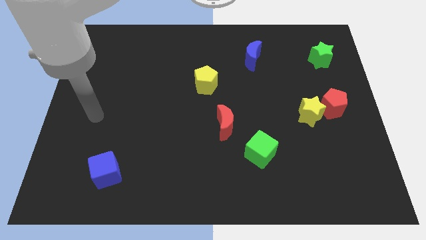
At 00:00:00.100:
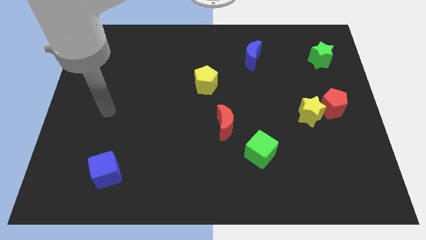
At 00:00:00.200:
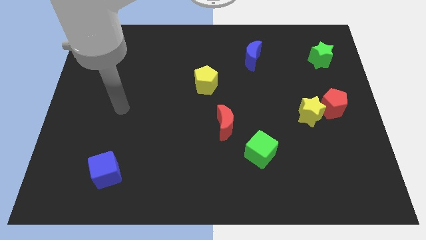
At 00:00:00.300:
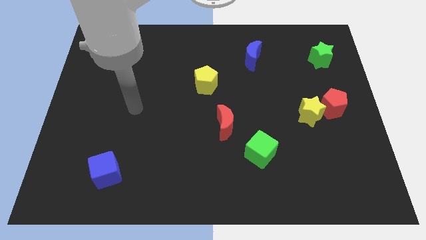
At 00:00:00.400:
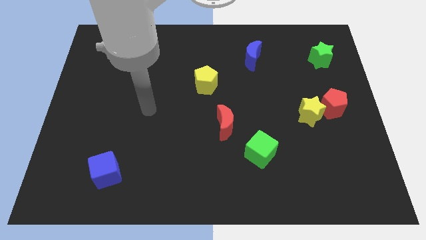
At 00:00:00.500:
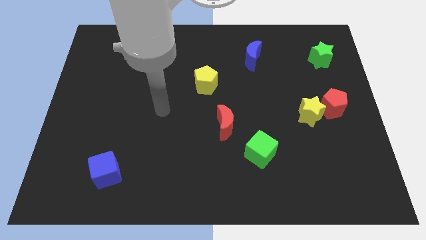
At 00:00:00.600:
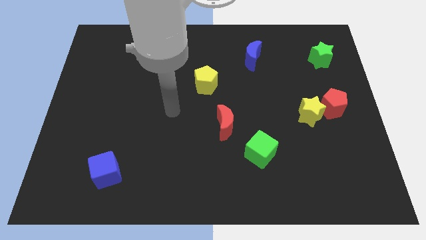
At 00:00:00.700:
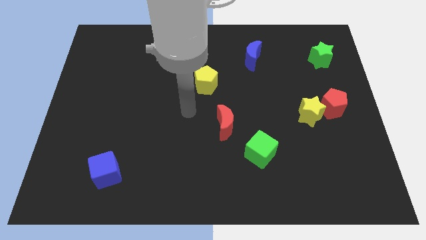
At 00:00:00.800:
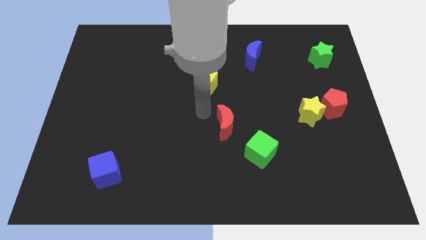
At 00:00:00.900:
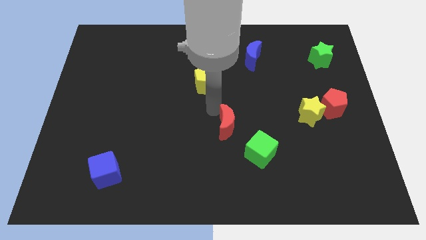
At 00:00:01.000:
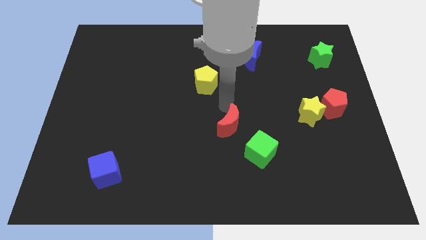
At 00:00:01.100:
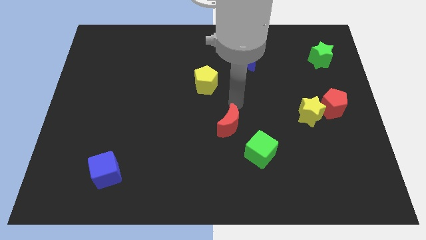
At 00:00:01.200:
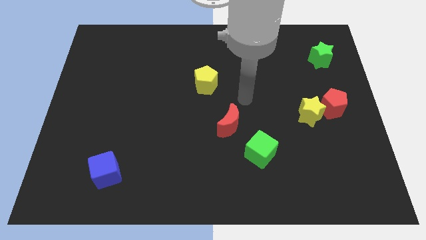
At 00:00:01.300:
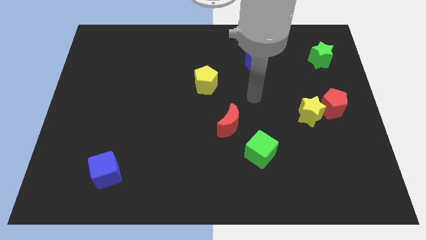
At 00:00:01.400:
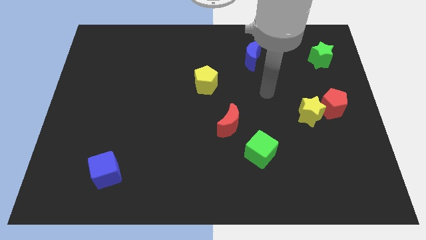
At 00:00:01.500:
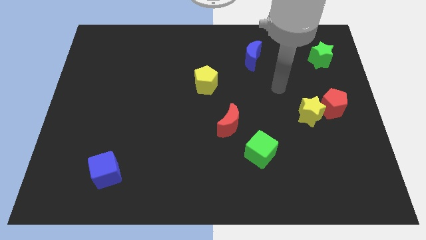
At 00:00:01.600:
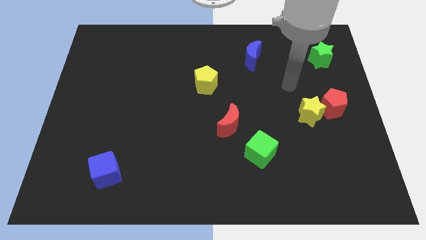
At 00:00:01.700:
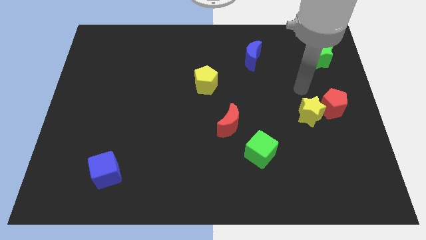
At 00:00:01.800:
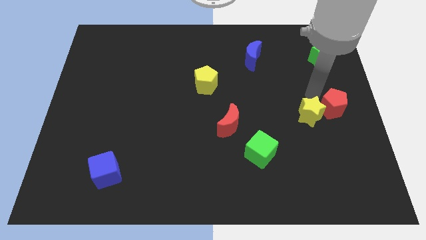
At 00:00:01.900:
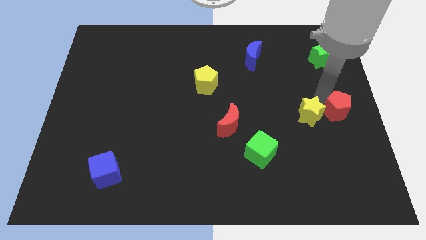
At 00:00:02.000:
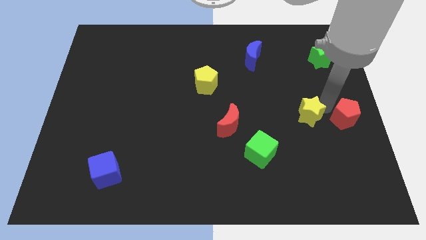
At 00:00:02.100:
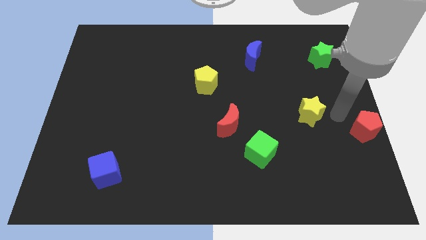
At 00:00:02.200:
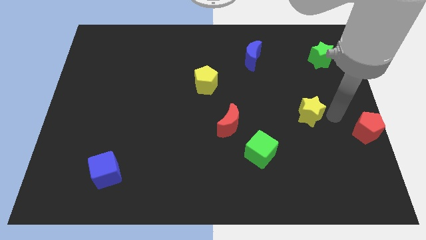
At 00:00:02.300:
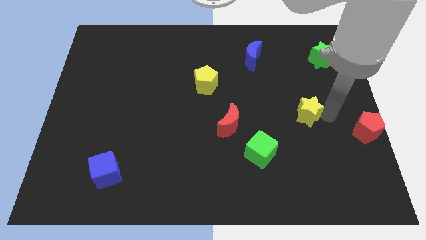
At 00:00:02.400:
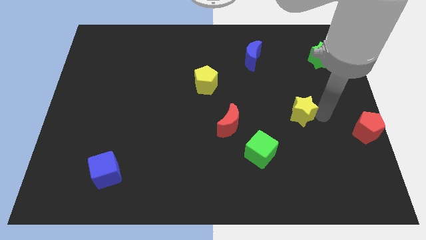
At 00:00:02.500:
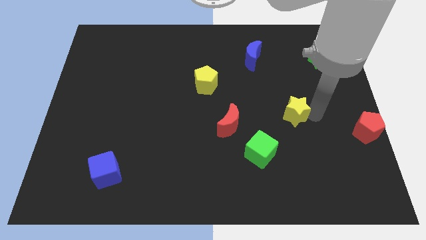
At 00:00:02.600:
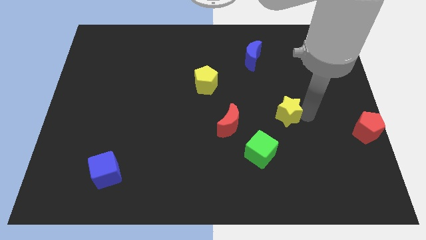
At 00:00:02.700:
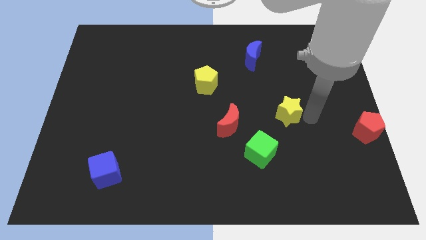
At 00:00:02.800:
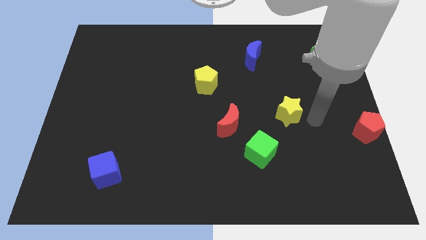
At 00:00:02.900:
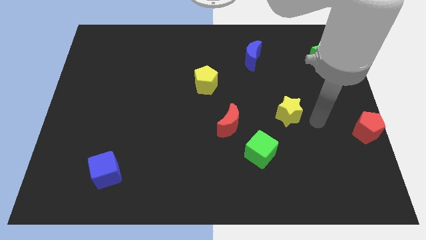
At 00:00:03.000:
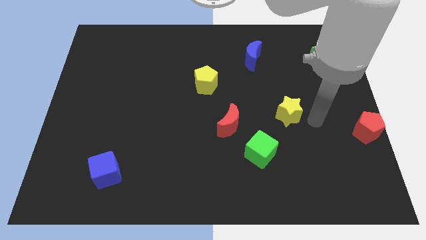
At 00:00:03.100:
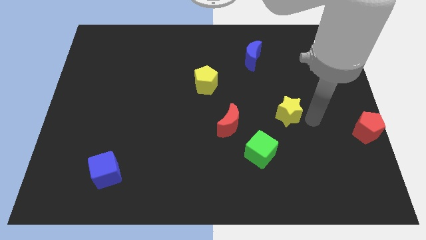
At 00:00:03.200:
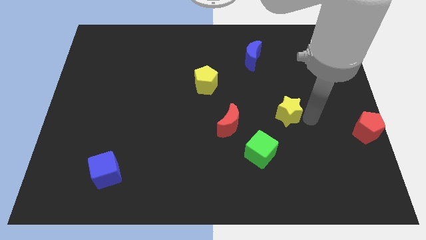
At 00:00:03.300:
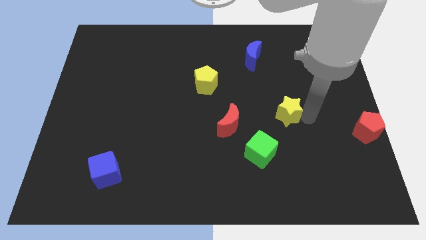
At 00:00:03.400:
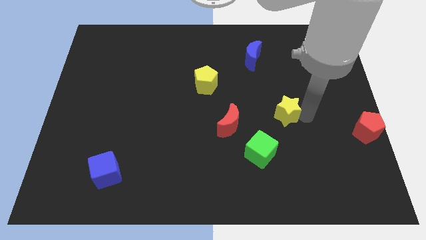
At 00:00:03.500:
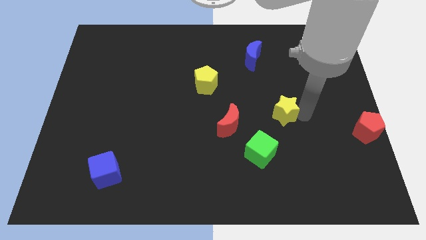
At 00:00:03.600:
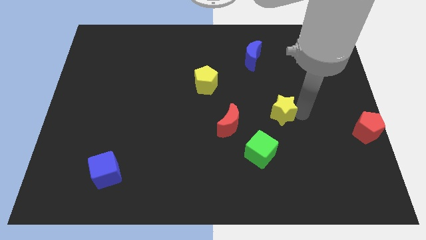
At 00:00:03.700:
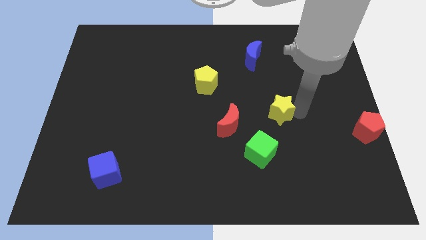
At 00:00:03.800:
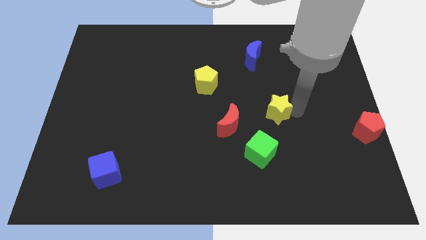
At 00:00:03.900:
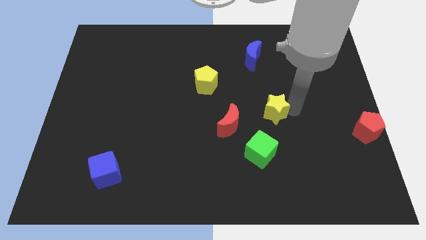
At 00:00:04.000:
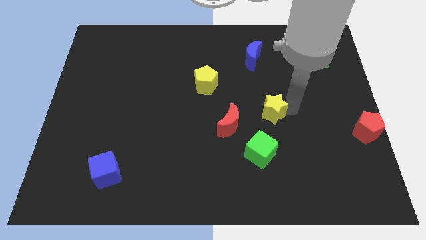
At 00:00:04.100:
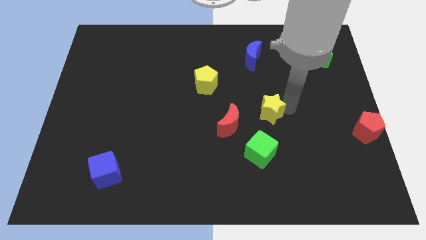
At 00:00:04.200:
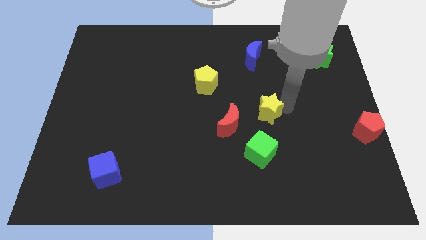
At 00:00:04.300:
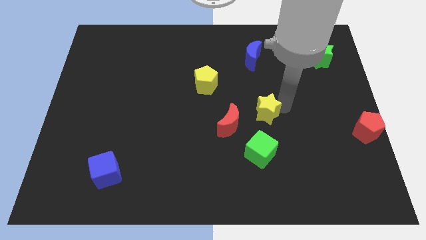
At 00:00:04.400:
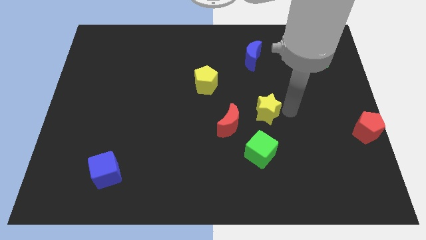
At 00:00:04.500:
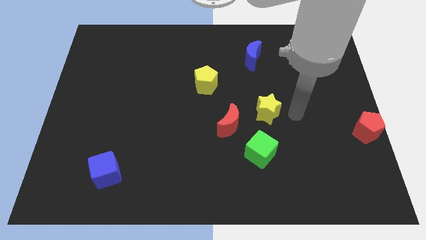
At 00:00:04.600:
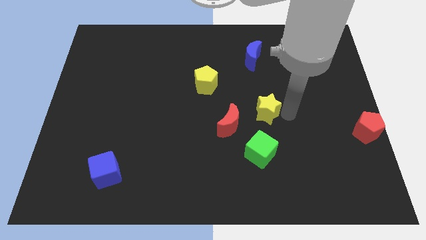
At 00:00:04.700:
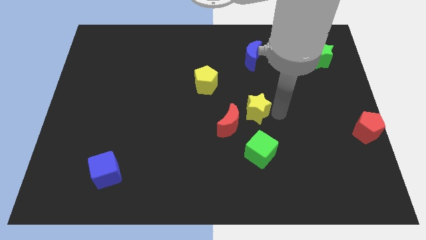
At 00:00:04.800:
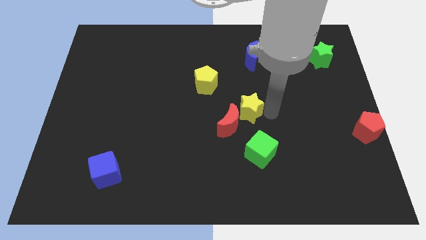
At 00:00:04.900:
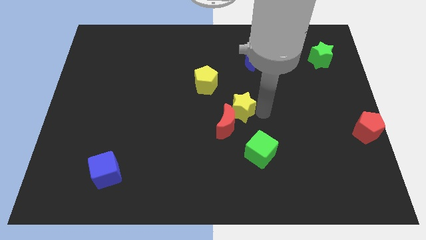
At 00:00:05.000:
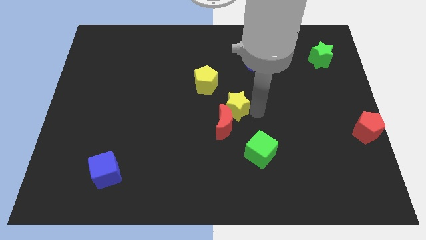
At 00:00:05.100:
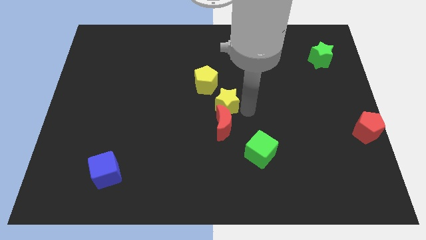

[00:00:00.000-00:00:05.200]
push the yellow star diagonally up and to the left of the red moon

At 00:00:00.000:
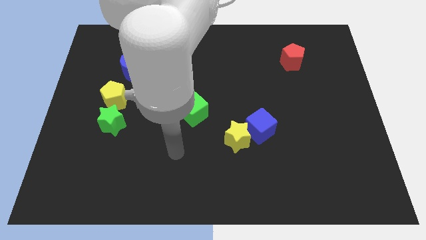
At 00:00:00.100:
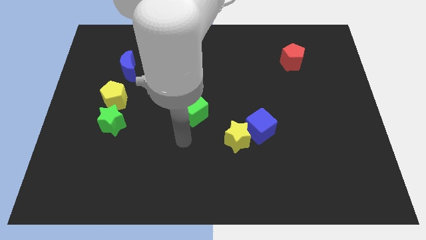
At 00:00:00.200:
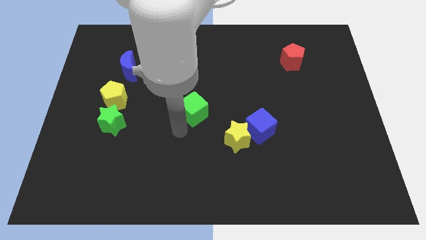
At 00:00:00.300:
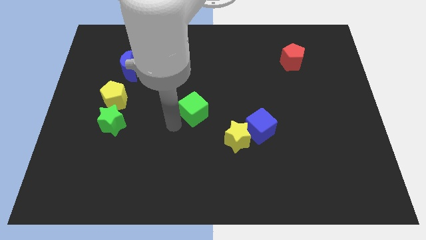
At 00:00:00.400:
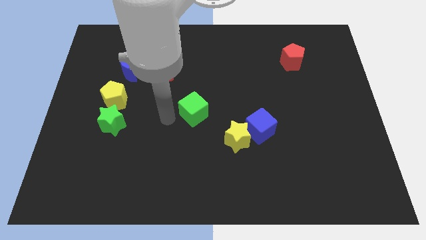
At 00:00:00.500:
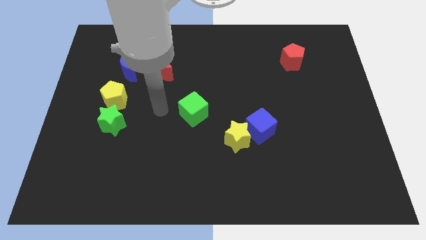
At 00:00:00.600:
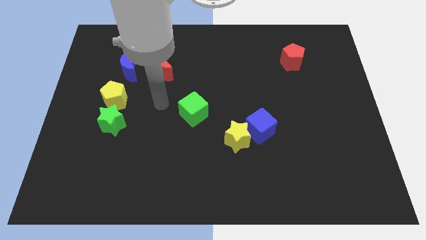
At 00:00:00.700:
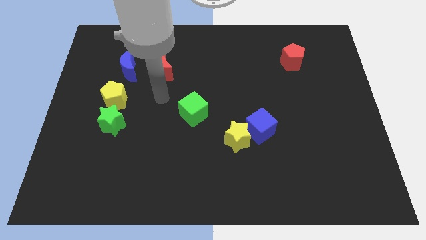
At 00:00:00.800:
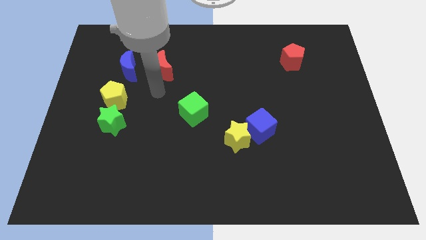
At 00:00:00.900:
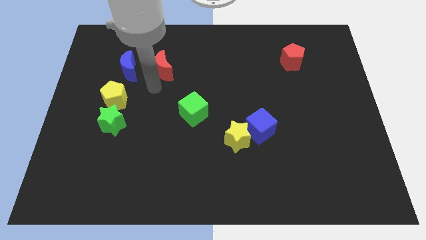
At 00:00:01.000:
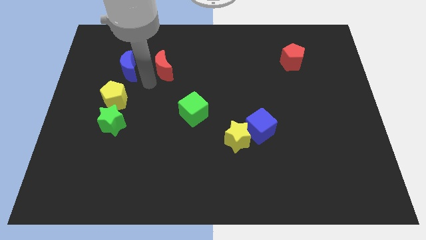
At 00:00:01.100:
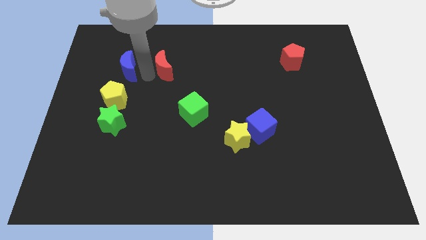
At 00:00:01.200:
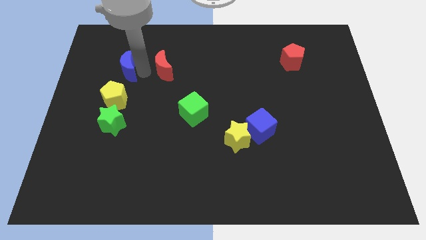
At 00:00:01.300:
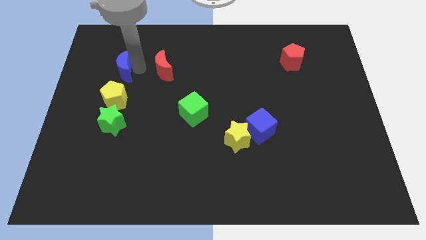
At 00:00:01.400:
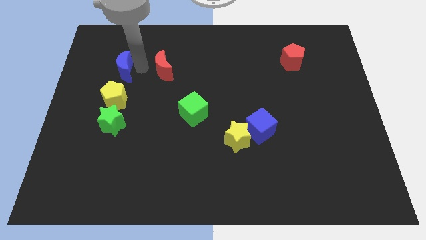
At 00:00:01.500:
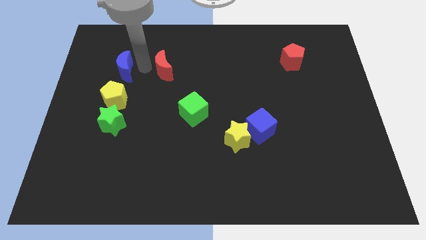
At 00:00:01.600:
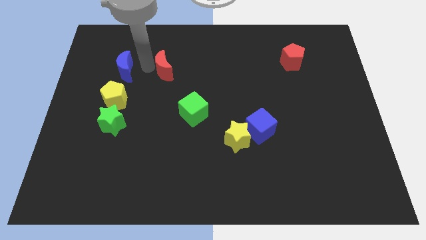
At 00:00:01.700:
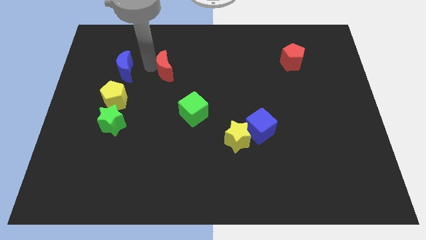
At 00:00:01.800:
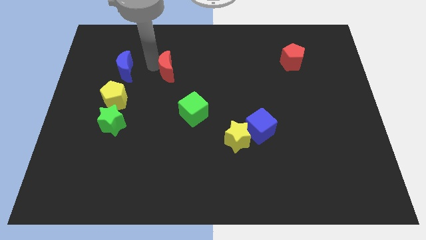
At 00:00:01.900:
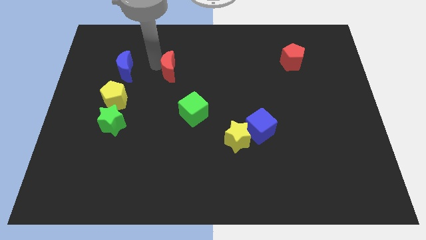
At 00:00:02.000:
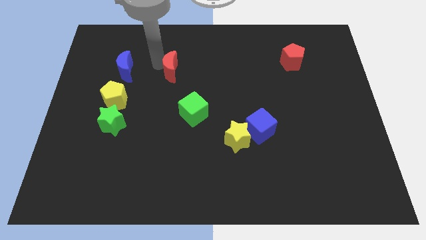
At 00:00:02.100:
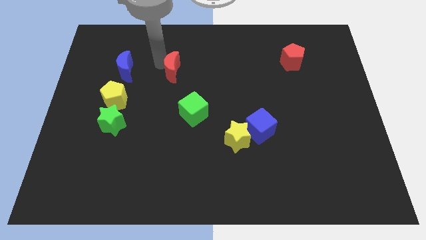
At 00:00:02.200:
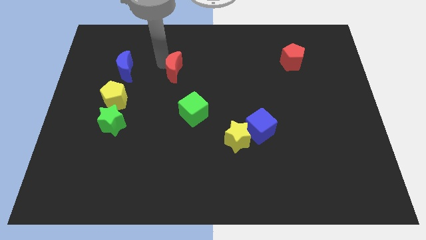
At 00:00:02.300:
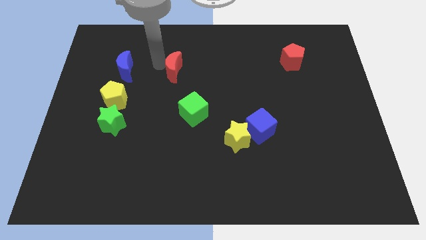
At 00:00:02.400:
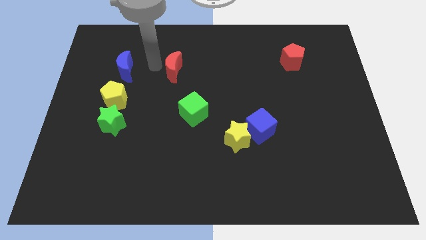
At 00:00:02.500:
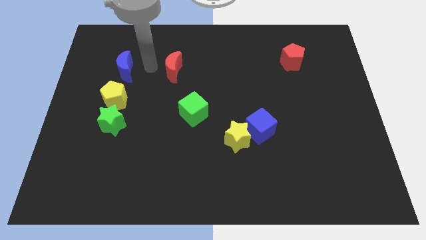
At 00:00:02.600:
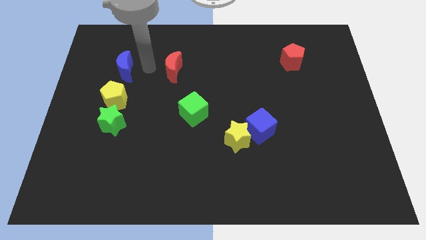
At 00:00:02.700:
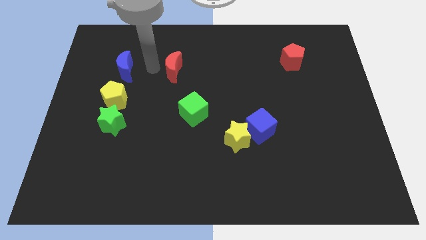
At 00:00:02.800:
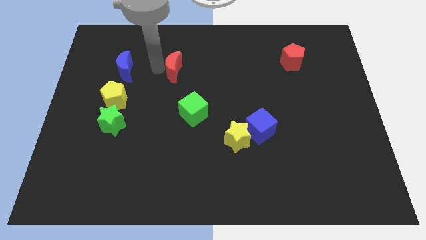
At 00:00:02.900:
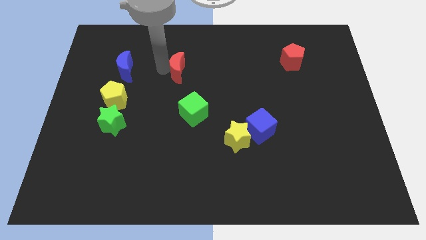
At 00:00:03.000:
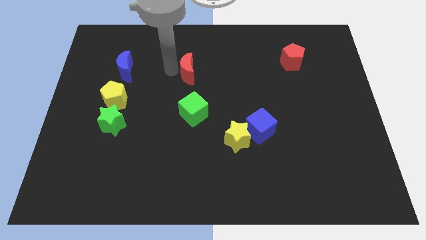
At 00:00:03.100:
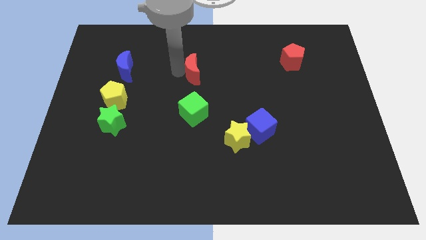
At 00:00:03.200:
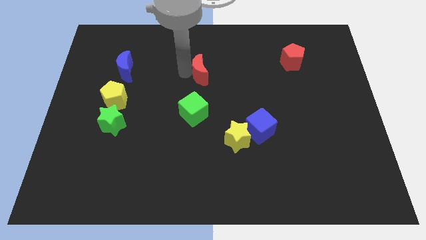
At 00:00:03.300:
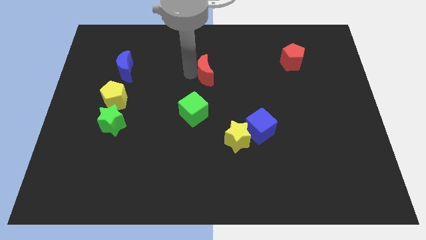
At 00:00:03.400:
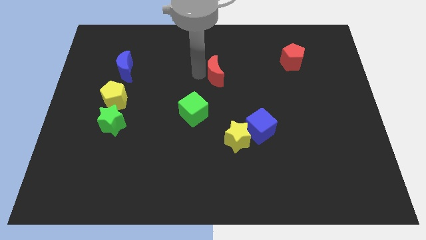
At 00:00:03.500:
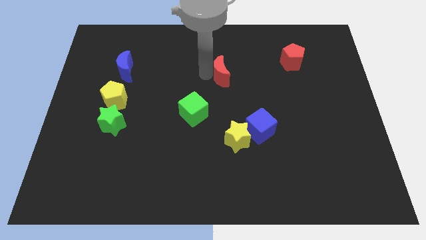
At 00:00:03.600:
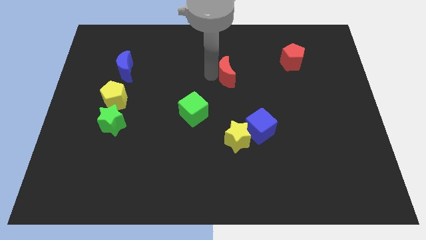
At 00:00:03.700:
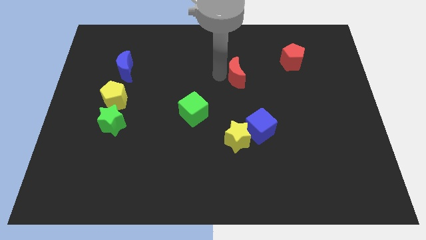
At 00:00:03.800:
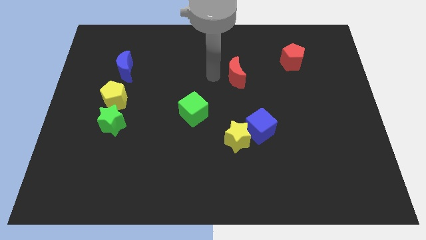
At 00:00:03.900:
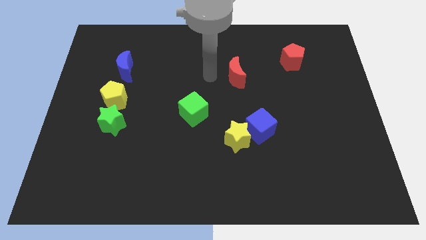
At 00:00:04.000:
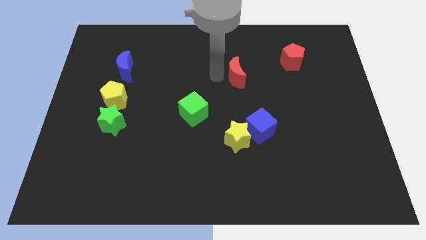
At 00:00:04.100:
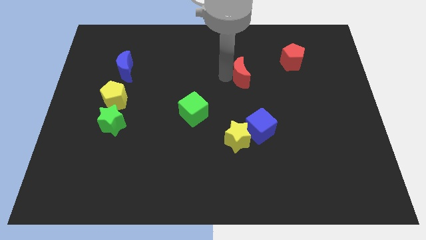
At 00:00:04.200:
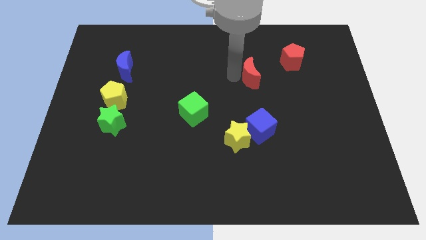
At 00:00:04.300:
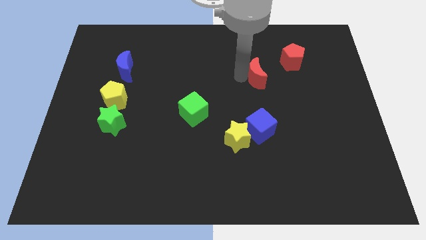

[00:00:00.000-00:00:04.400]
push the red moon diagonally down and to the left of the red pentagon
